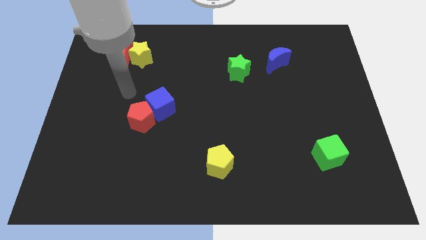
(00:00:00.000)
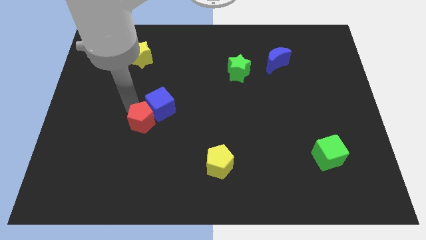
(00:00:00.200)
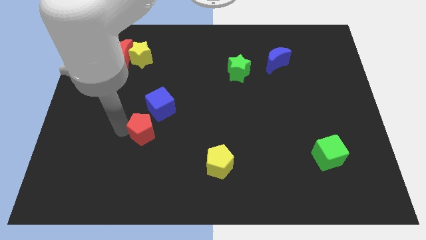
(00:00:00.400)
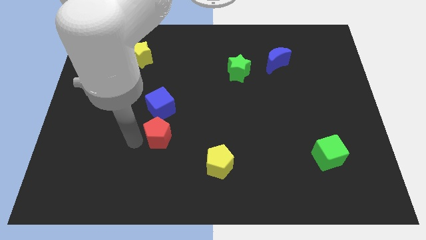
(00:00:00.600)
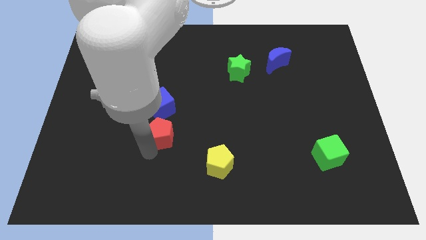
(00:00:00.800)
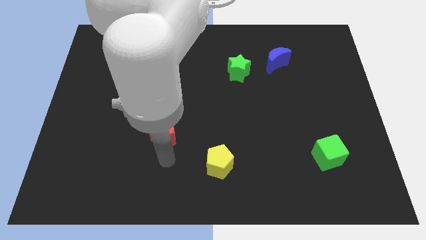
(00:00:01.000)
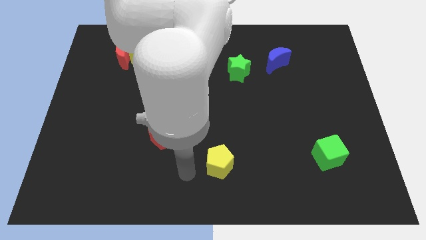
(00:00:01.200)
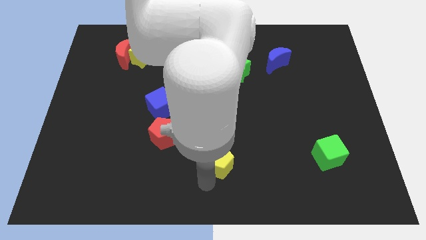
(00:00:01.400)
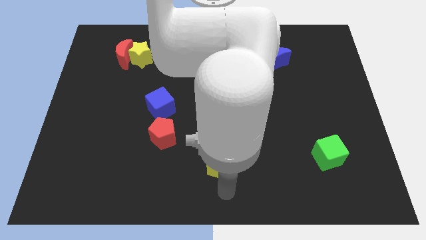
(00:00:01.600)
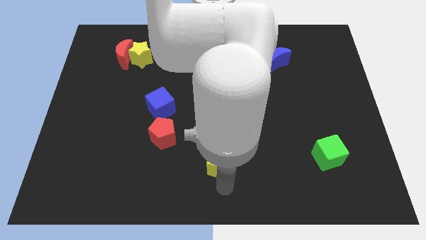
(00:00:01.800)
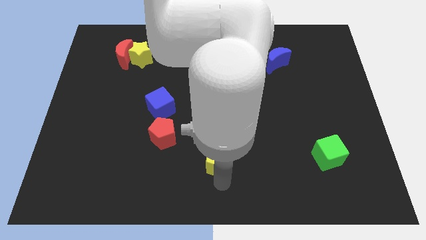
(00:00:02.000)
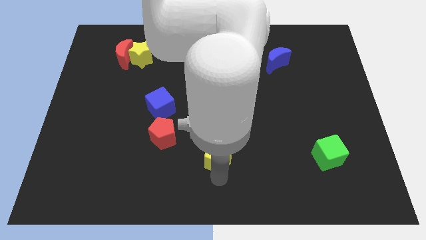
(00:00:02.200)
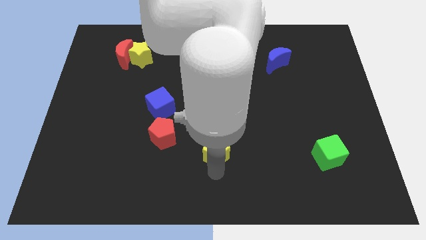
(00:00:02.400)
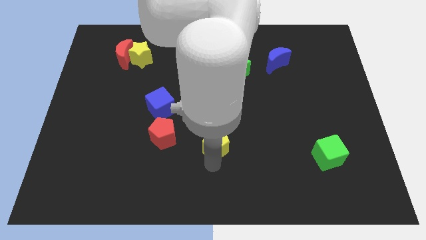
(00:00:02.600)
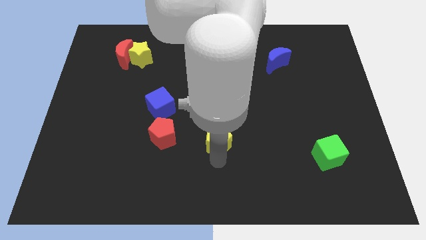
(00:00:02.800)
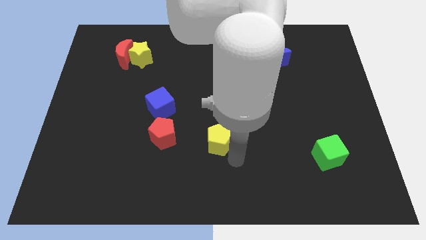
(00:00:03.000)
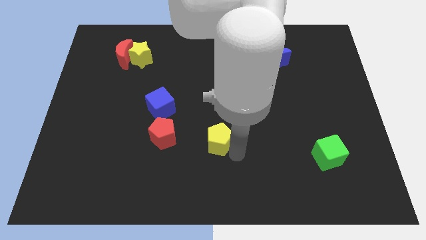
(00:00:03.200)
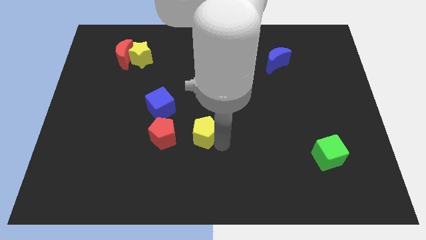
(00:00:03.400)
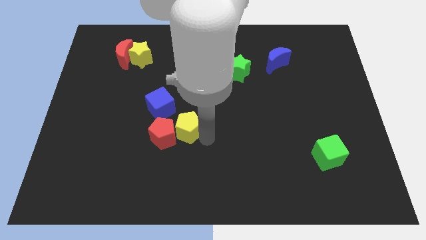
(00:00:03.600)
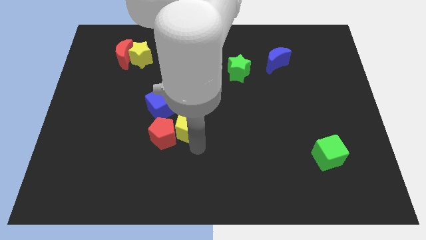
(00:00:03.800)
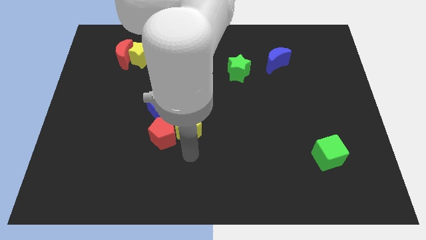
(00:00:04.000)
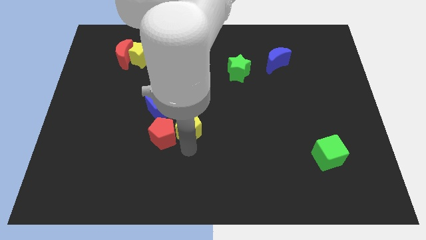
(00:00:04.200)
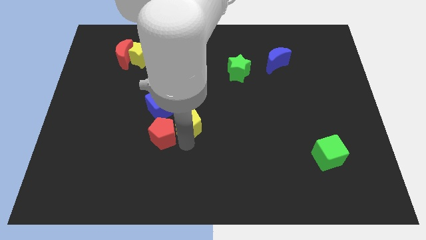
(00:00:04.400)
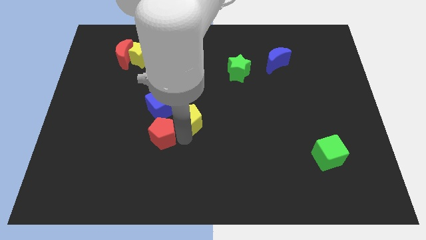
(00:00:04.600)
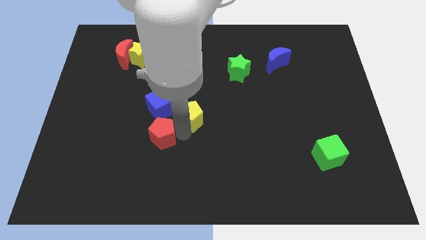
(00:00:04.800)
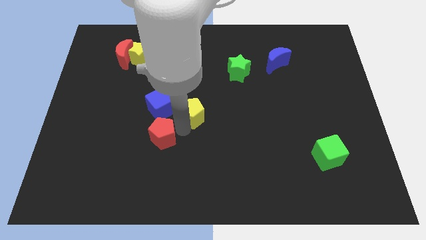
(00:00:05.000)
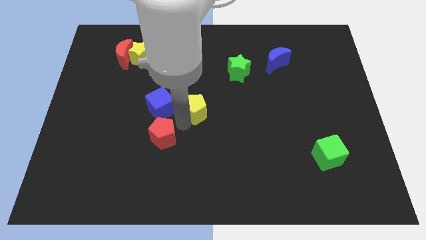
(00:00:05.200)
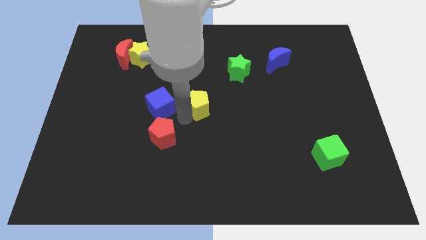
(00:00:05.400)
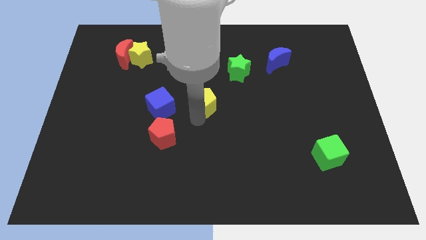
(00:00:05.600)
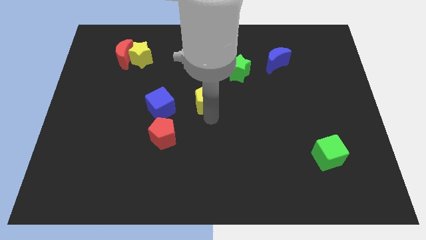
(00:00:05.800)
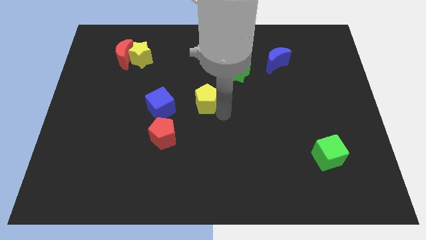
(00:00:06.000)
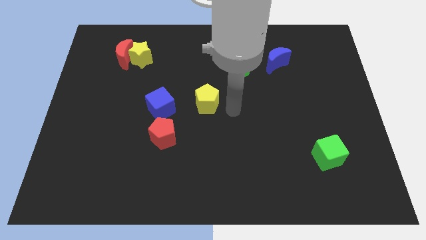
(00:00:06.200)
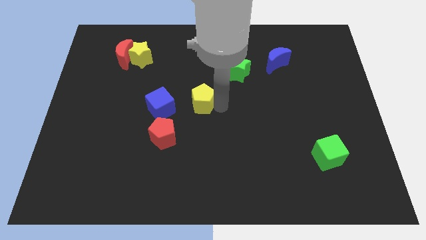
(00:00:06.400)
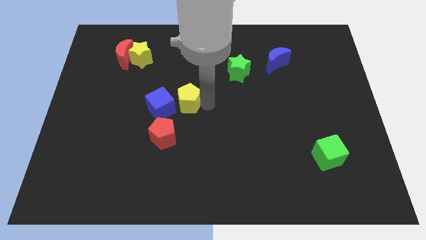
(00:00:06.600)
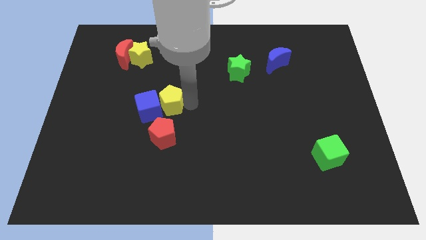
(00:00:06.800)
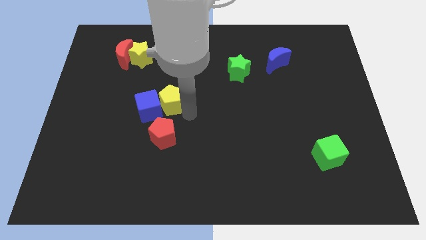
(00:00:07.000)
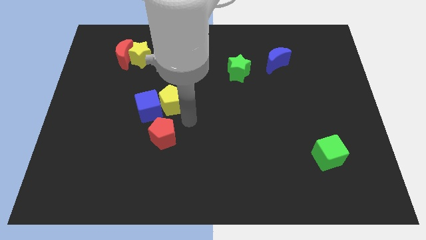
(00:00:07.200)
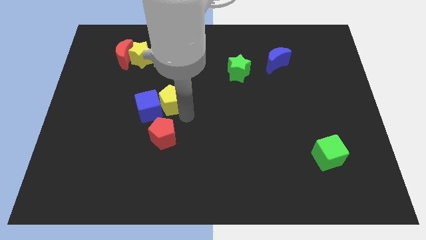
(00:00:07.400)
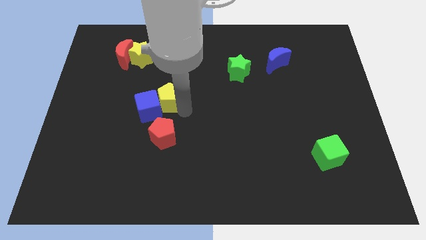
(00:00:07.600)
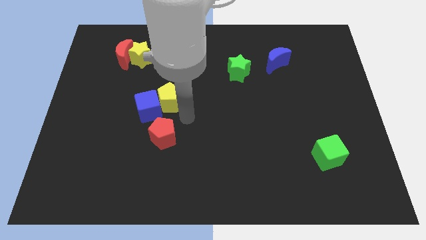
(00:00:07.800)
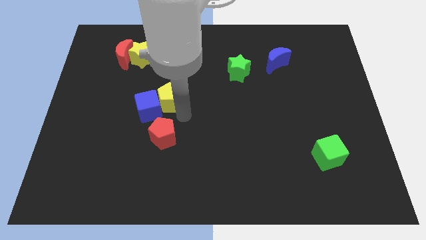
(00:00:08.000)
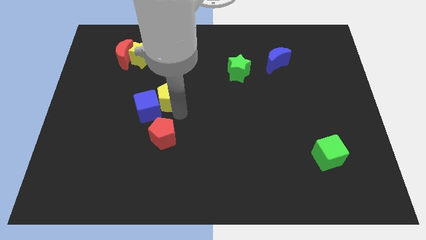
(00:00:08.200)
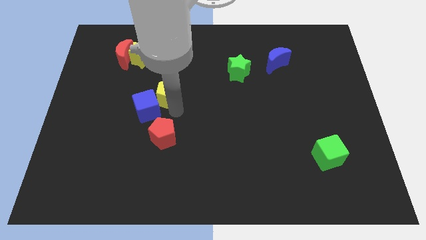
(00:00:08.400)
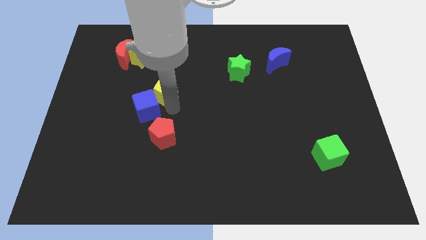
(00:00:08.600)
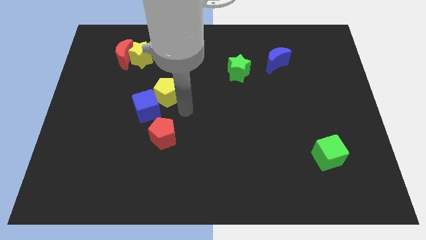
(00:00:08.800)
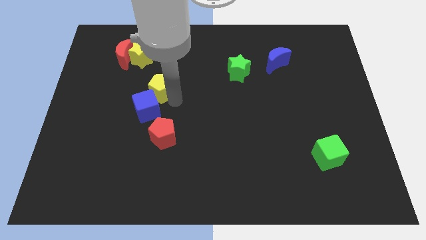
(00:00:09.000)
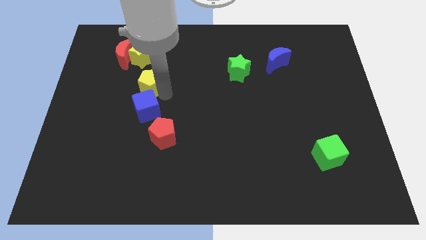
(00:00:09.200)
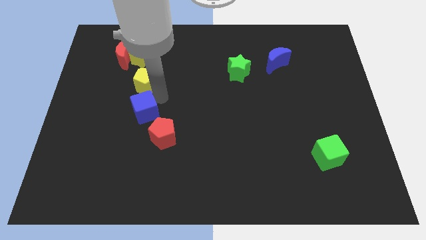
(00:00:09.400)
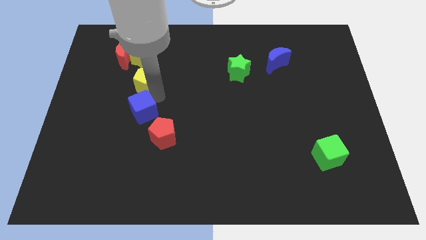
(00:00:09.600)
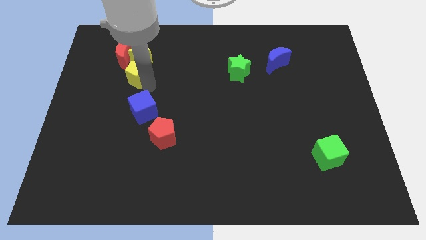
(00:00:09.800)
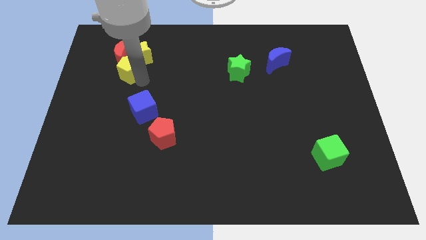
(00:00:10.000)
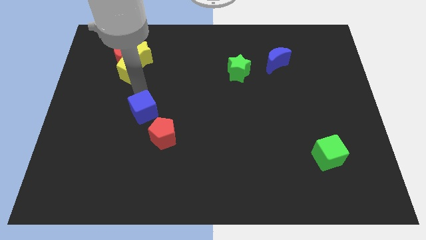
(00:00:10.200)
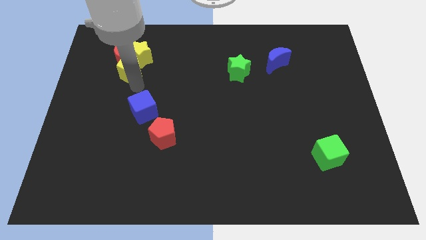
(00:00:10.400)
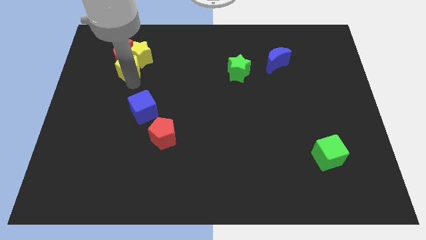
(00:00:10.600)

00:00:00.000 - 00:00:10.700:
move the yellow pentagon next to the red moon

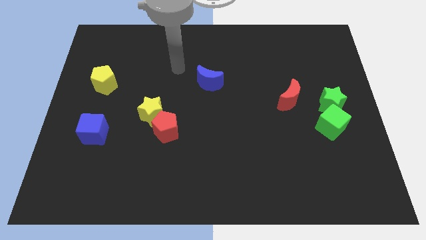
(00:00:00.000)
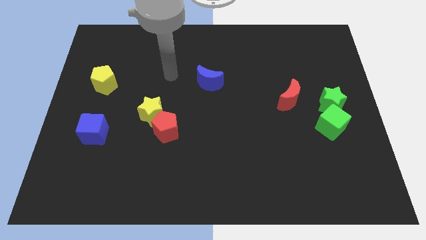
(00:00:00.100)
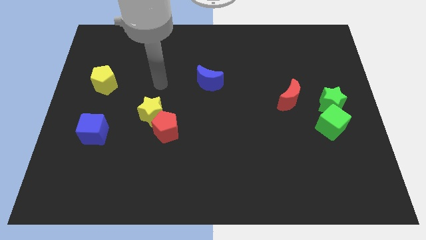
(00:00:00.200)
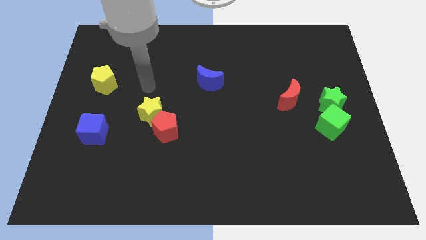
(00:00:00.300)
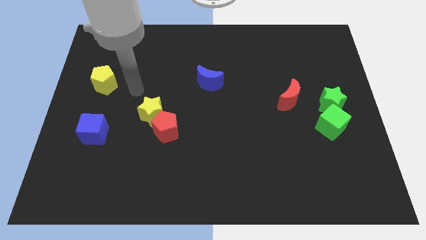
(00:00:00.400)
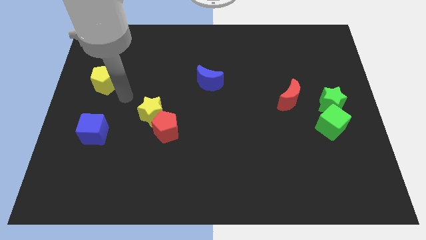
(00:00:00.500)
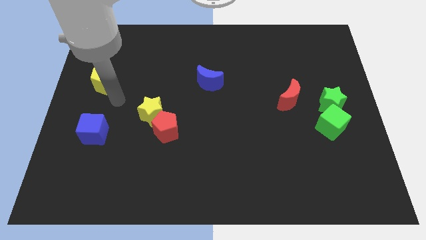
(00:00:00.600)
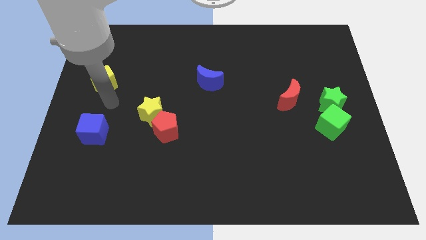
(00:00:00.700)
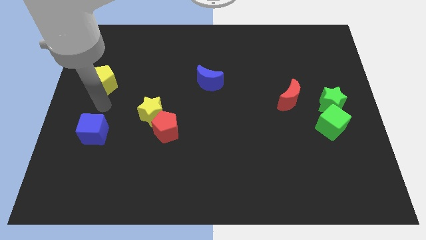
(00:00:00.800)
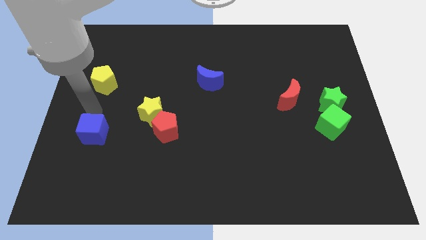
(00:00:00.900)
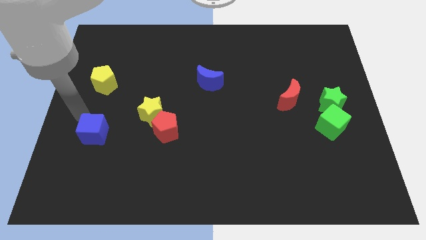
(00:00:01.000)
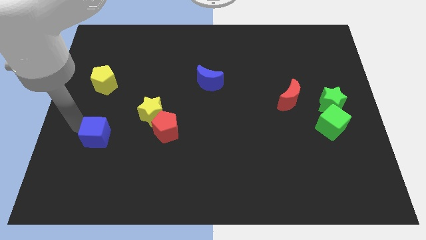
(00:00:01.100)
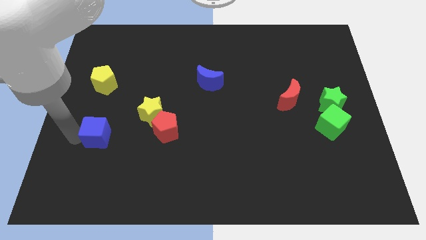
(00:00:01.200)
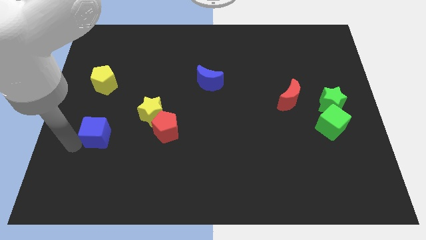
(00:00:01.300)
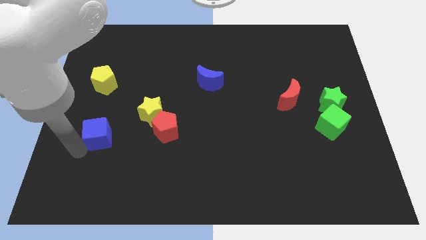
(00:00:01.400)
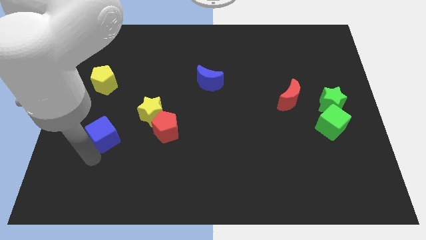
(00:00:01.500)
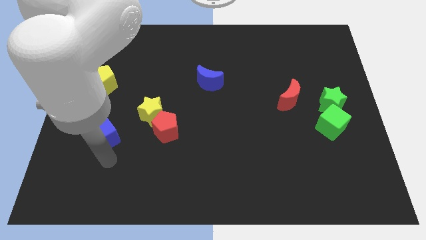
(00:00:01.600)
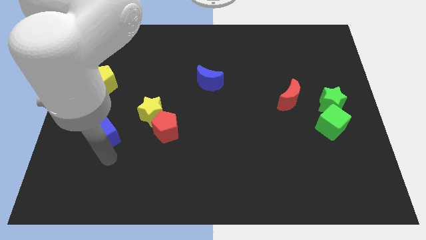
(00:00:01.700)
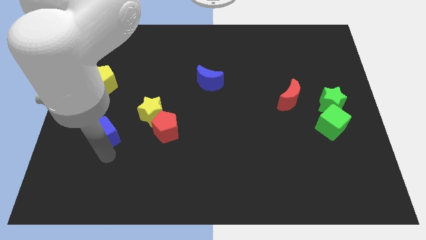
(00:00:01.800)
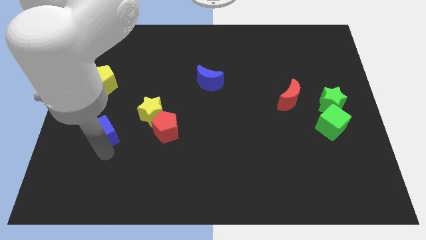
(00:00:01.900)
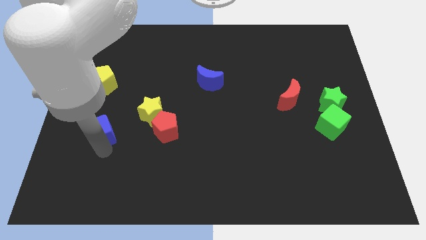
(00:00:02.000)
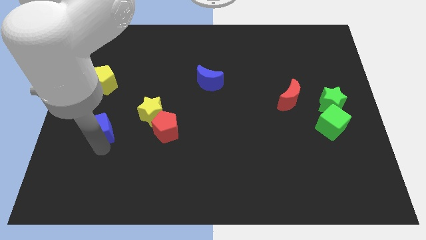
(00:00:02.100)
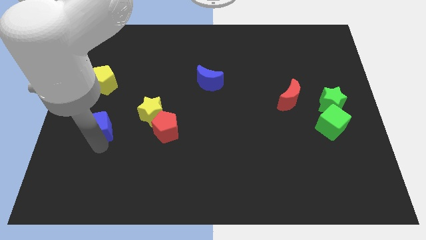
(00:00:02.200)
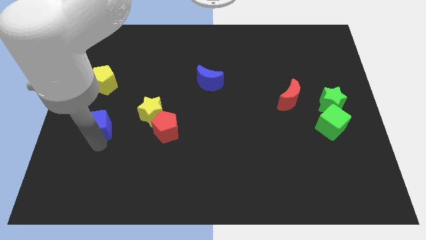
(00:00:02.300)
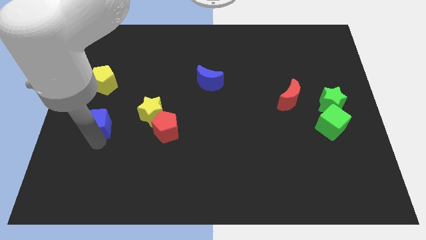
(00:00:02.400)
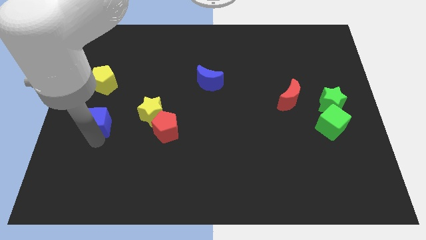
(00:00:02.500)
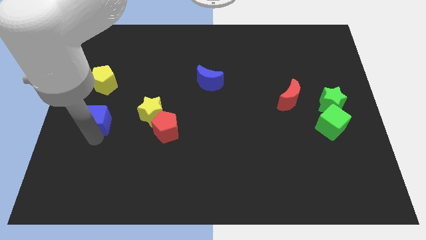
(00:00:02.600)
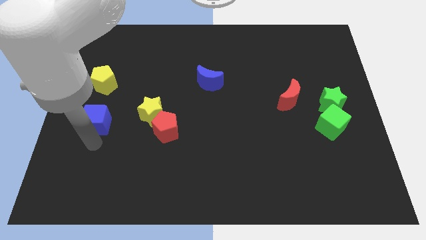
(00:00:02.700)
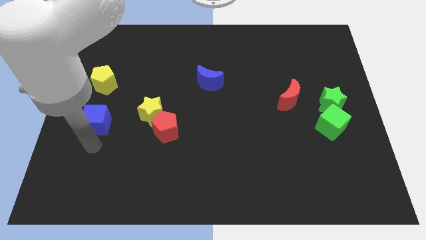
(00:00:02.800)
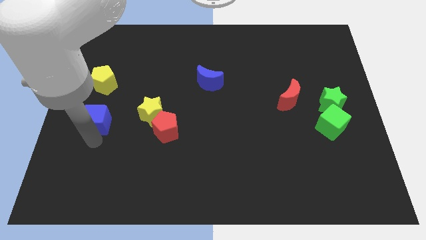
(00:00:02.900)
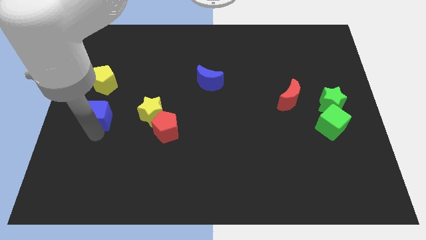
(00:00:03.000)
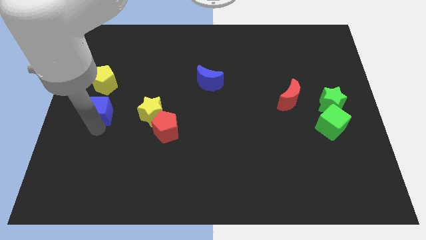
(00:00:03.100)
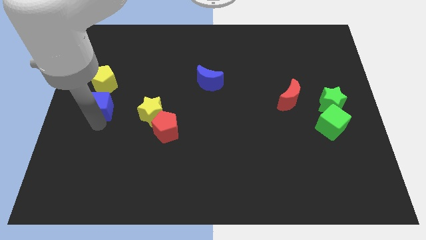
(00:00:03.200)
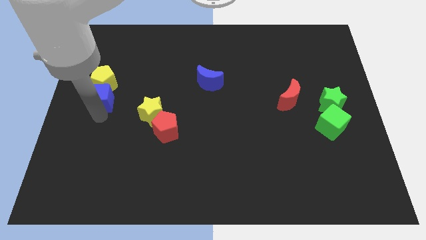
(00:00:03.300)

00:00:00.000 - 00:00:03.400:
put the blue cube next to the yellow pentagon
